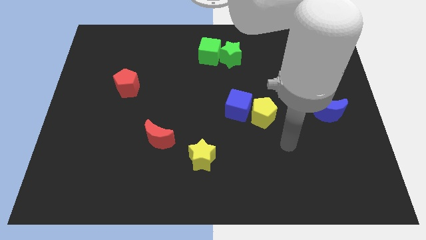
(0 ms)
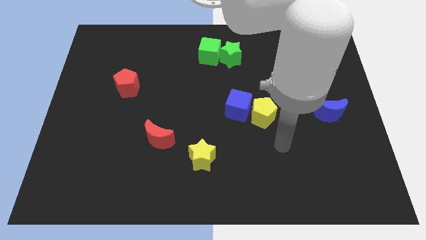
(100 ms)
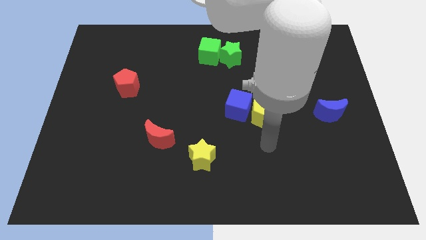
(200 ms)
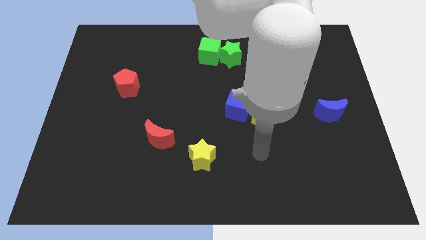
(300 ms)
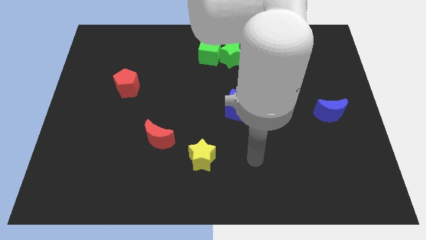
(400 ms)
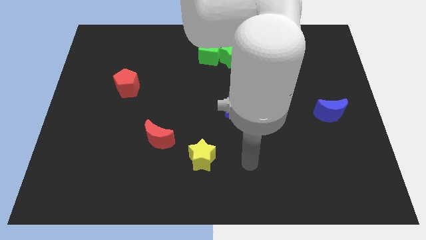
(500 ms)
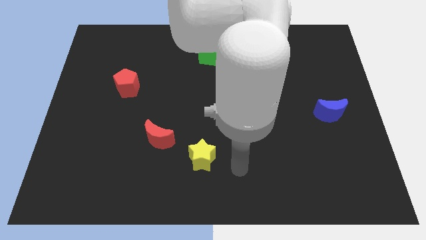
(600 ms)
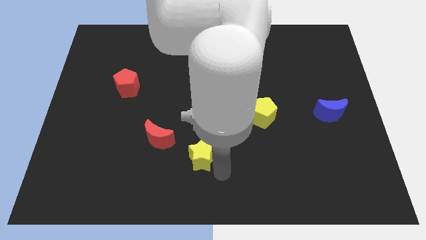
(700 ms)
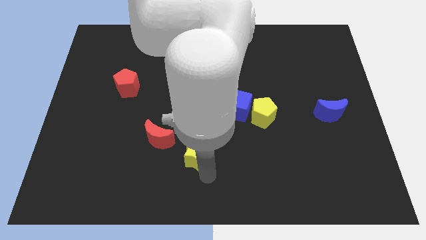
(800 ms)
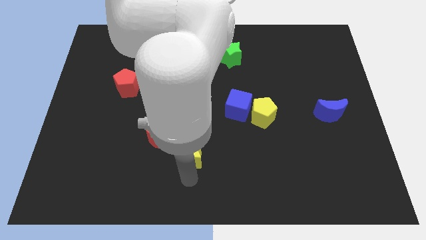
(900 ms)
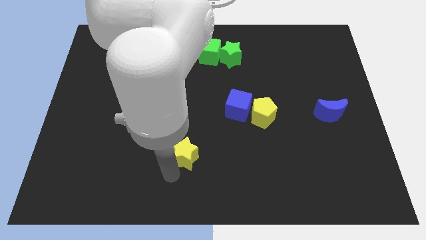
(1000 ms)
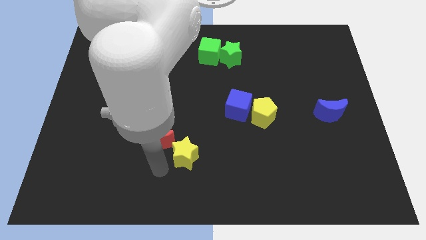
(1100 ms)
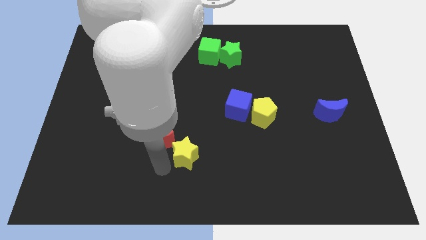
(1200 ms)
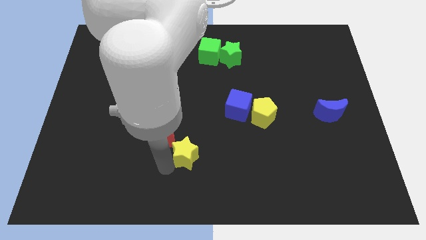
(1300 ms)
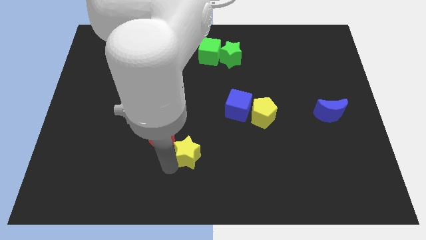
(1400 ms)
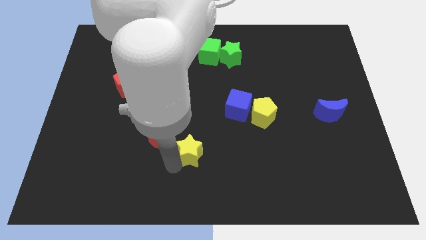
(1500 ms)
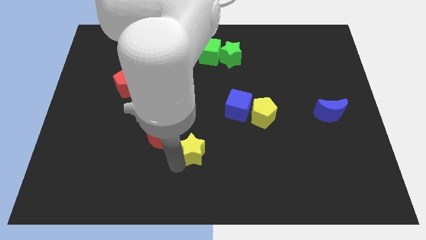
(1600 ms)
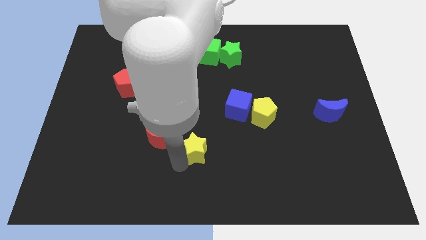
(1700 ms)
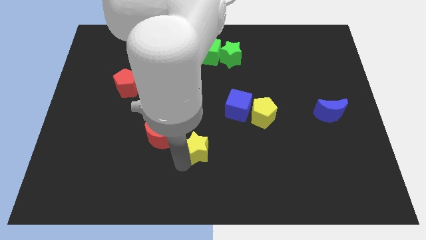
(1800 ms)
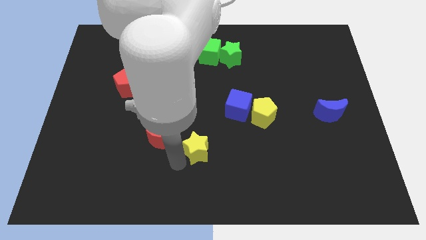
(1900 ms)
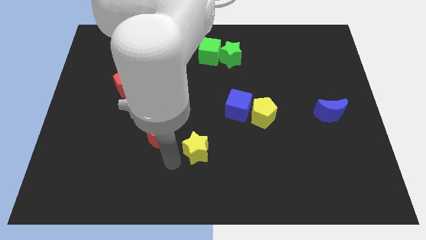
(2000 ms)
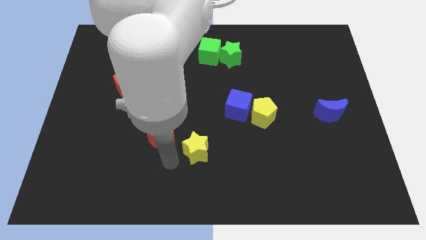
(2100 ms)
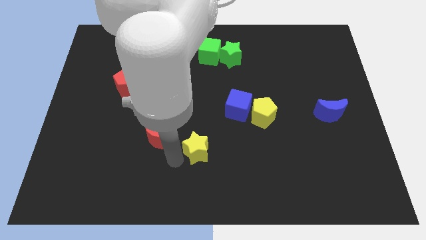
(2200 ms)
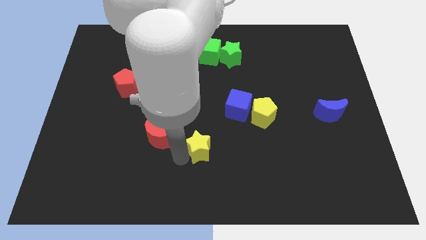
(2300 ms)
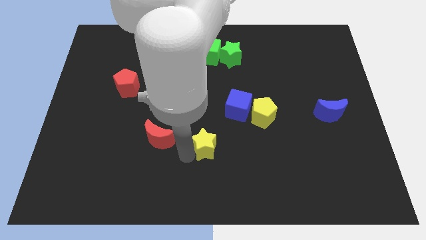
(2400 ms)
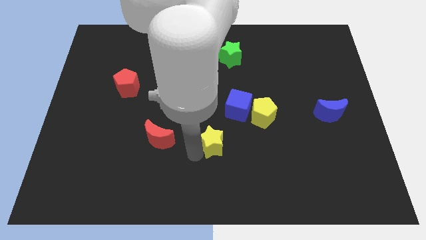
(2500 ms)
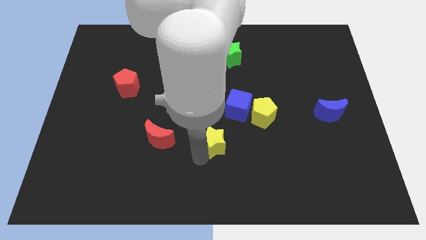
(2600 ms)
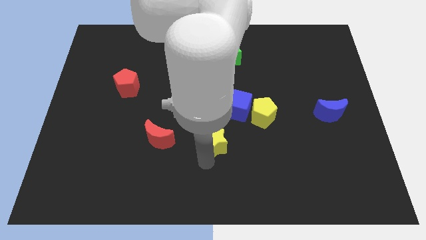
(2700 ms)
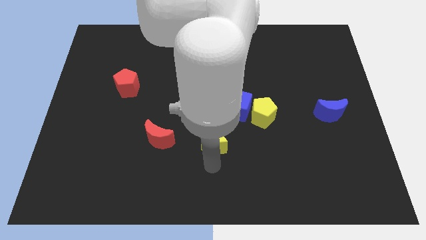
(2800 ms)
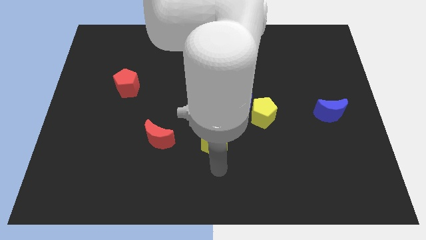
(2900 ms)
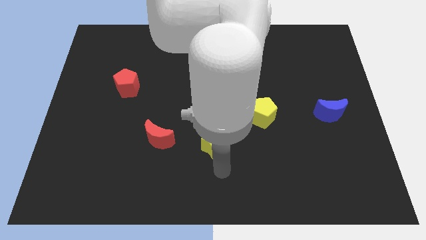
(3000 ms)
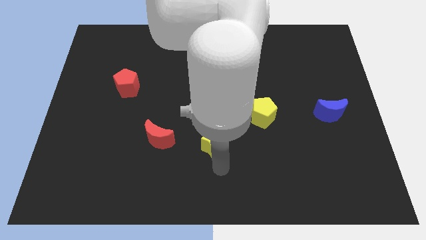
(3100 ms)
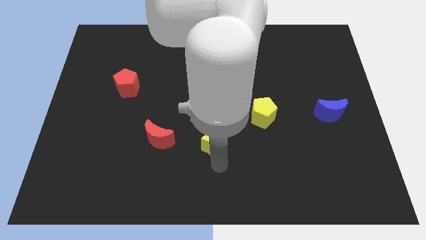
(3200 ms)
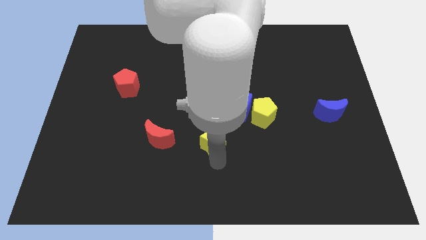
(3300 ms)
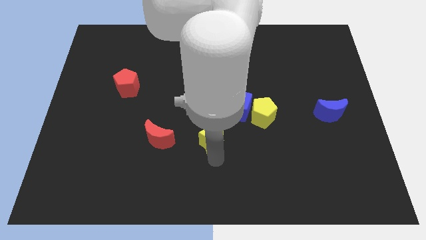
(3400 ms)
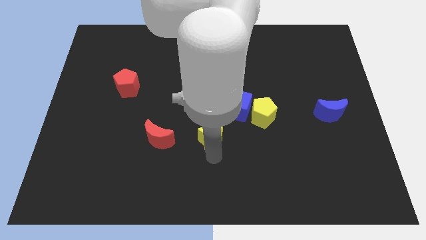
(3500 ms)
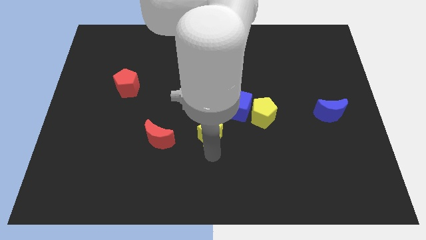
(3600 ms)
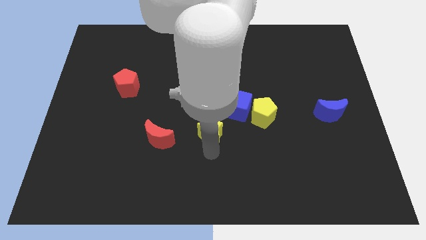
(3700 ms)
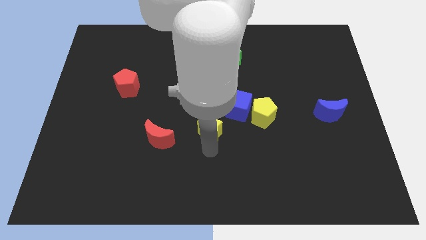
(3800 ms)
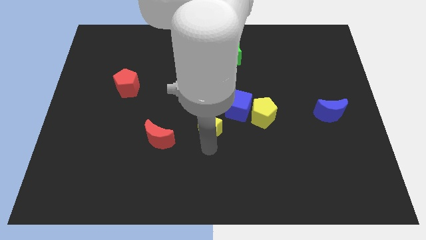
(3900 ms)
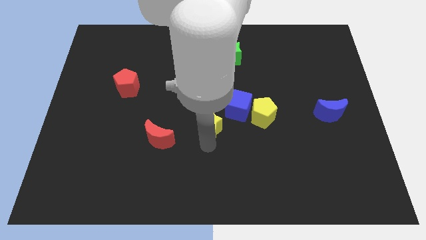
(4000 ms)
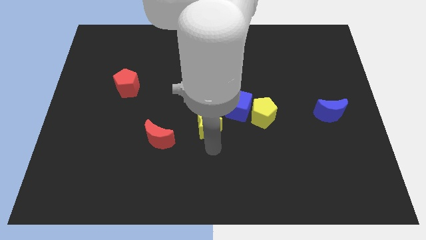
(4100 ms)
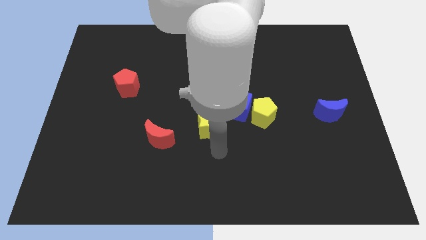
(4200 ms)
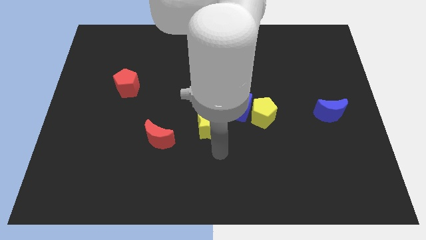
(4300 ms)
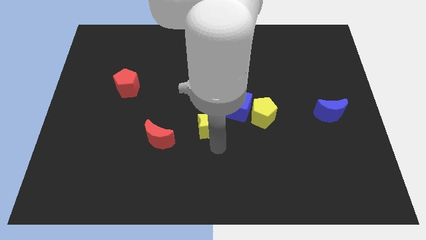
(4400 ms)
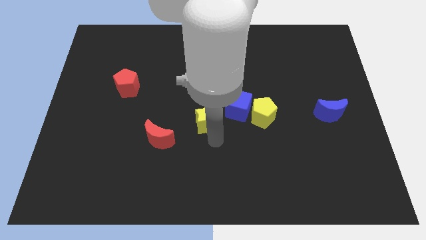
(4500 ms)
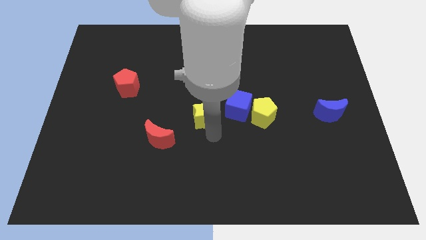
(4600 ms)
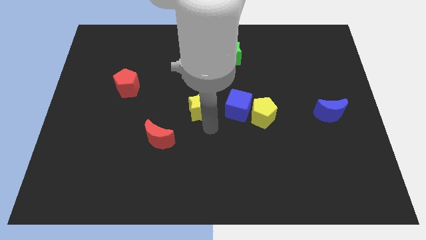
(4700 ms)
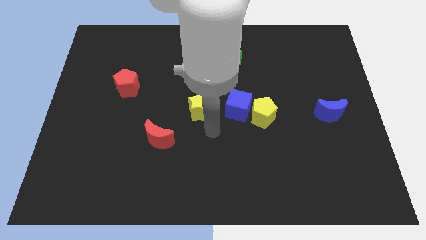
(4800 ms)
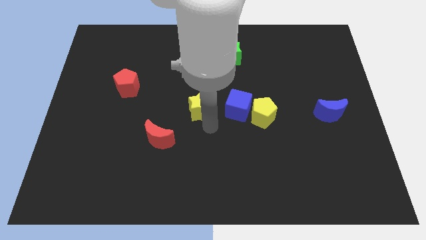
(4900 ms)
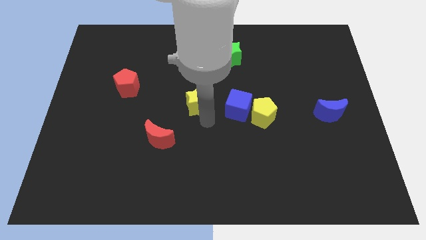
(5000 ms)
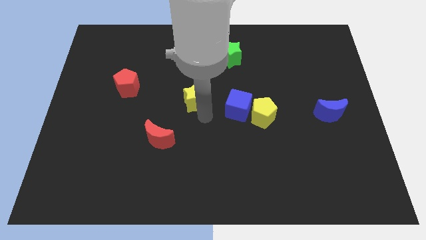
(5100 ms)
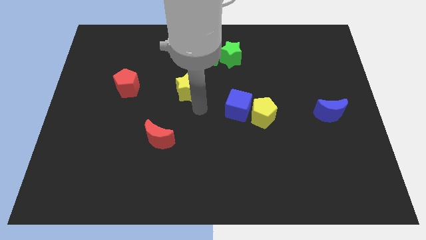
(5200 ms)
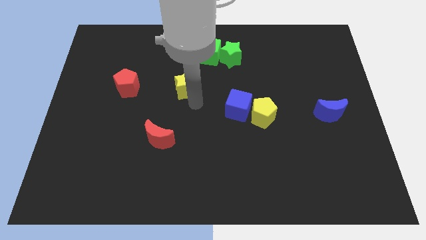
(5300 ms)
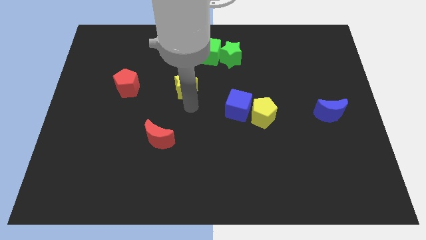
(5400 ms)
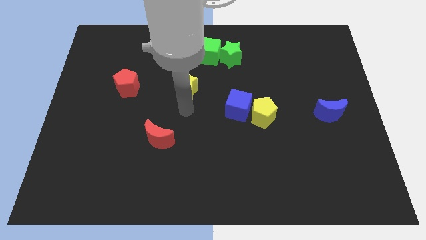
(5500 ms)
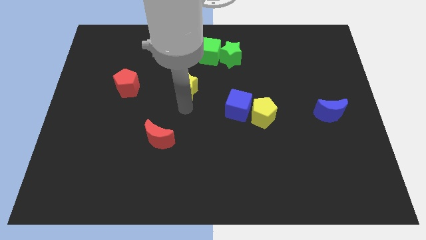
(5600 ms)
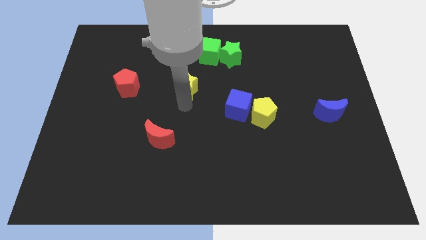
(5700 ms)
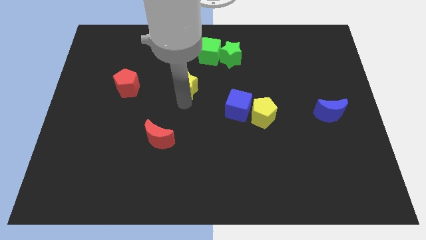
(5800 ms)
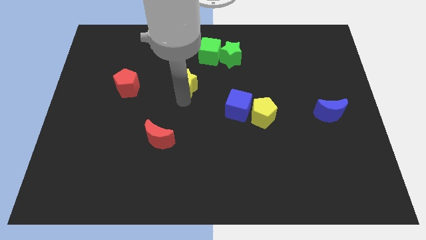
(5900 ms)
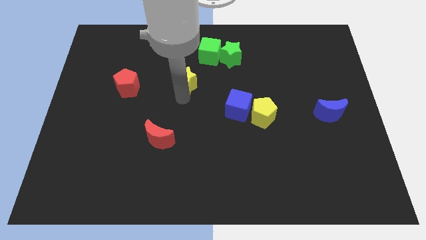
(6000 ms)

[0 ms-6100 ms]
push the yellow star diagonally down and to the left of the green cube

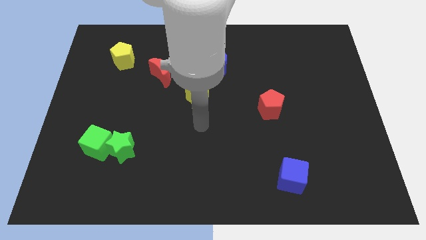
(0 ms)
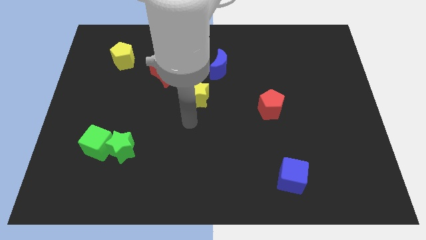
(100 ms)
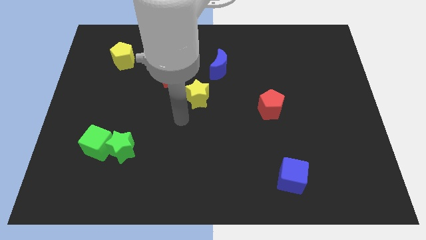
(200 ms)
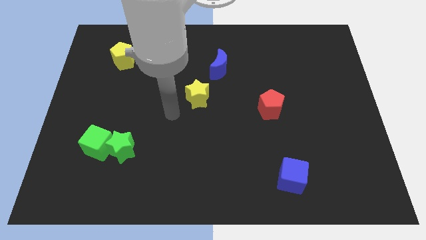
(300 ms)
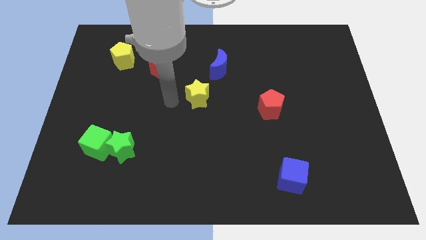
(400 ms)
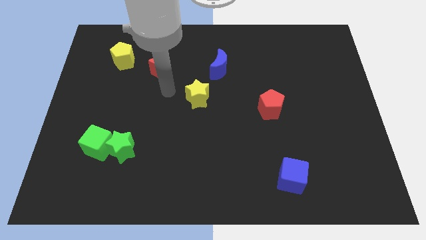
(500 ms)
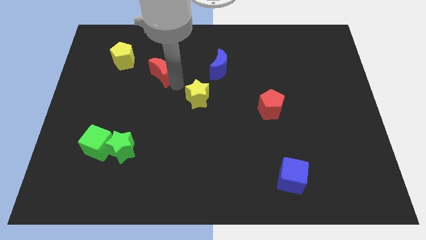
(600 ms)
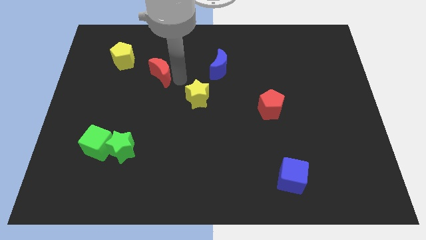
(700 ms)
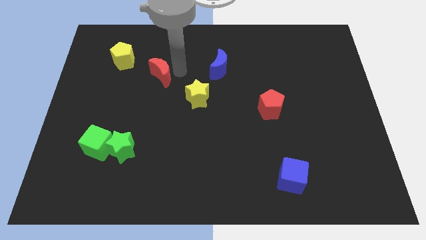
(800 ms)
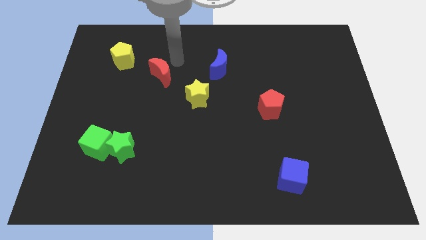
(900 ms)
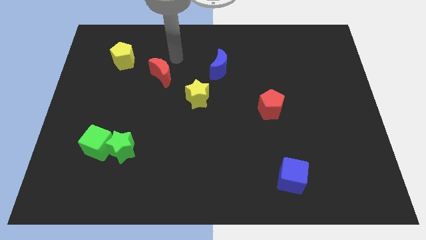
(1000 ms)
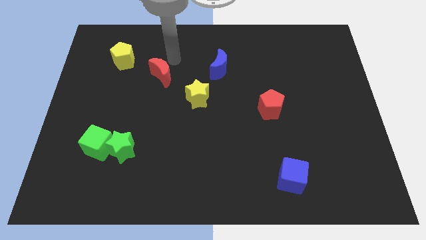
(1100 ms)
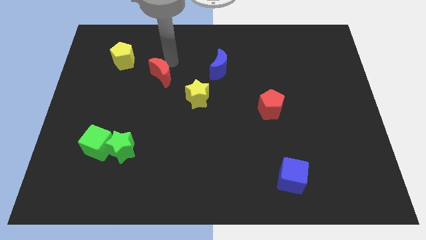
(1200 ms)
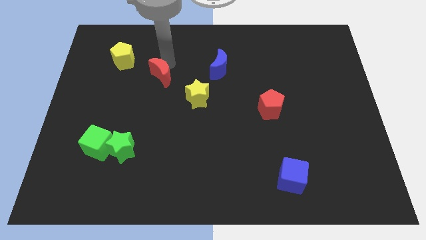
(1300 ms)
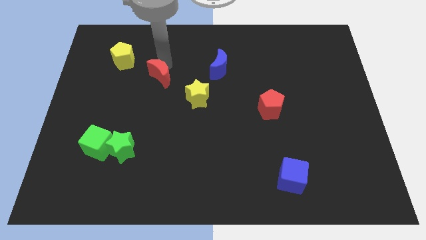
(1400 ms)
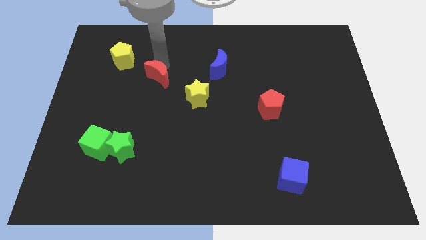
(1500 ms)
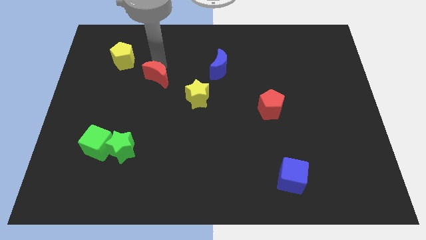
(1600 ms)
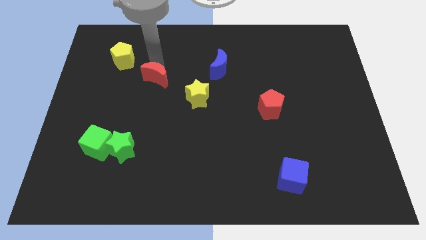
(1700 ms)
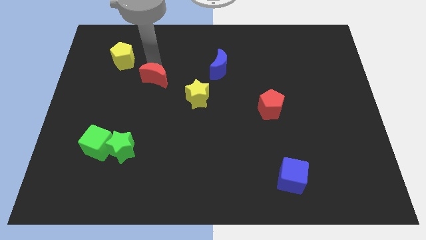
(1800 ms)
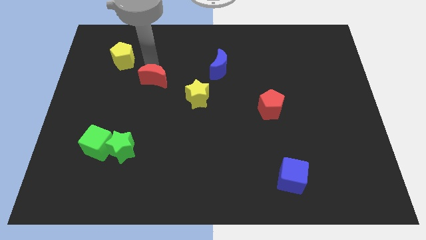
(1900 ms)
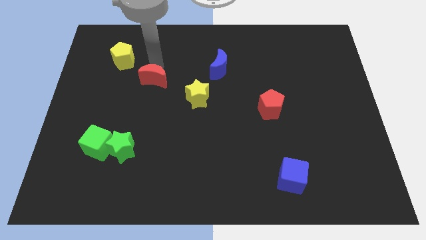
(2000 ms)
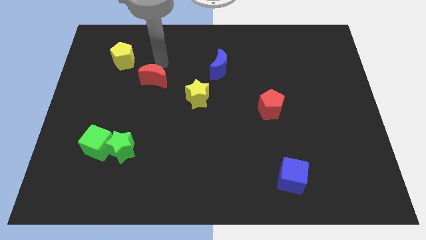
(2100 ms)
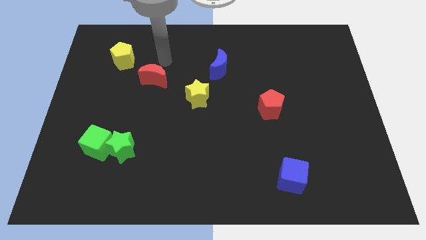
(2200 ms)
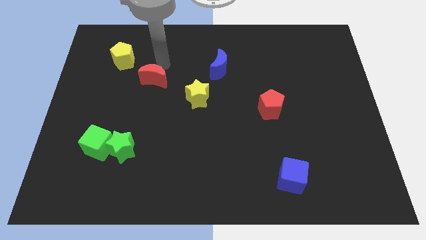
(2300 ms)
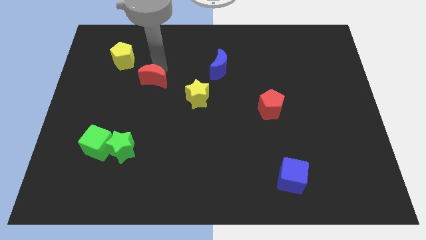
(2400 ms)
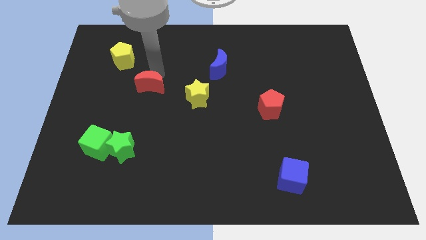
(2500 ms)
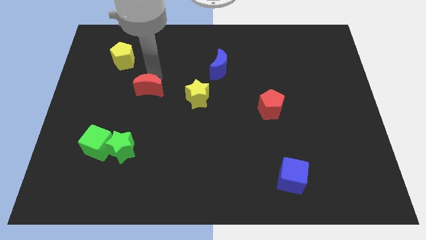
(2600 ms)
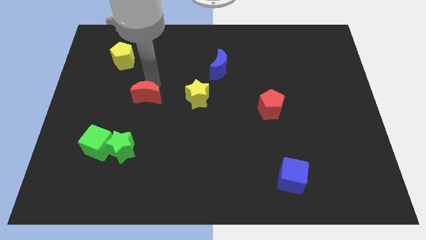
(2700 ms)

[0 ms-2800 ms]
push the red moon to the top side of the green star
